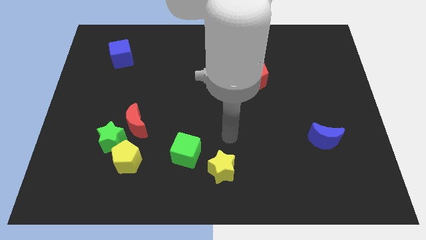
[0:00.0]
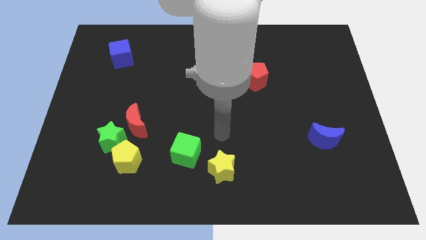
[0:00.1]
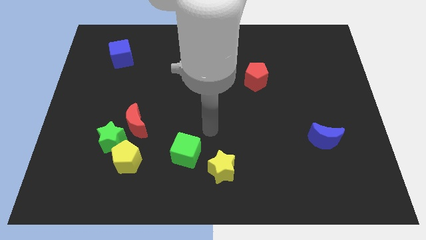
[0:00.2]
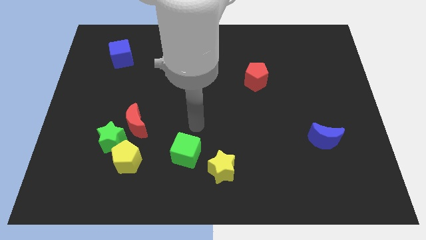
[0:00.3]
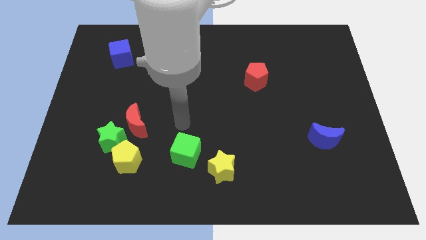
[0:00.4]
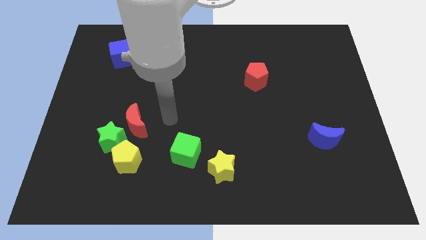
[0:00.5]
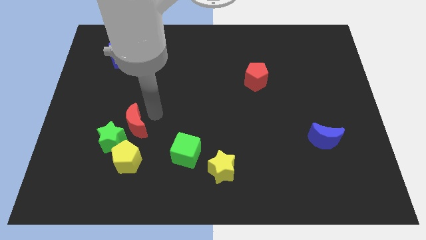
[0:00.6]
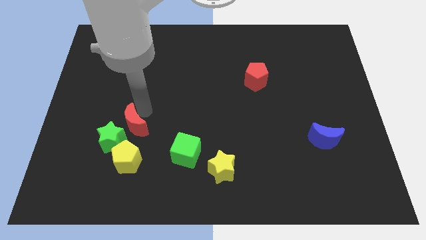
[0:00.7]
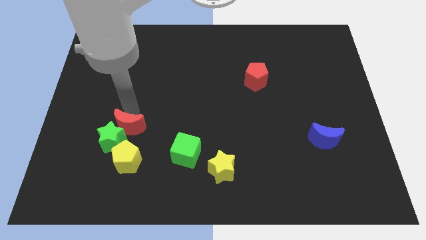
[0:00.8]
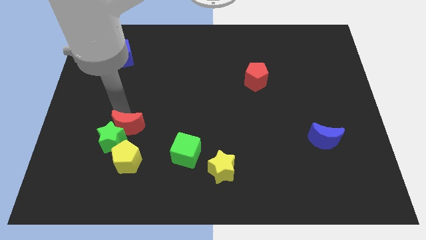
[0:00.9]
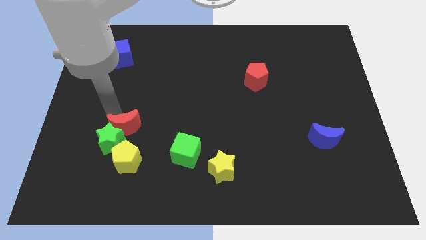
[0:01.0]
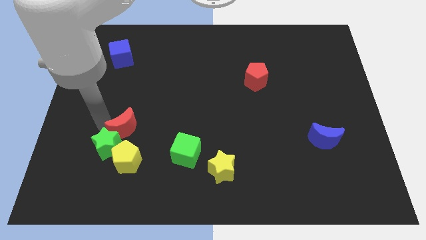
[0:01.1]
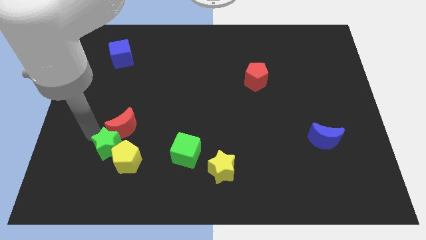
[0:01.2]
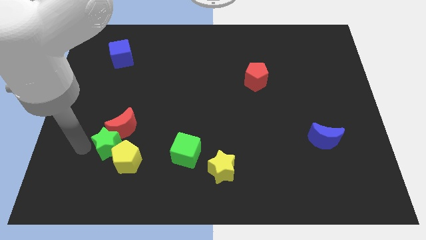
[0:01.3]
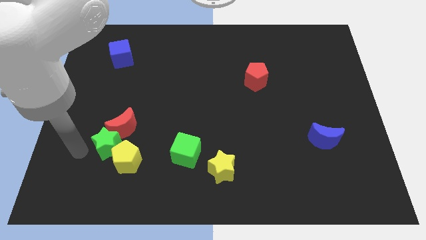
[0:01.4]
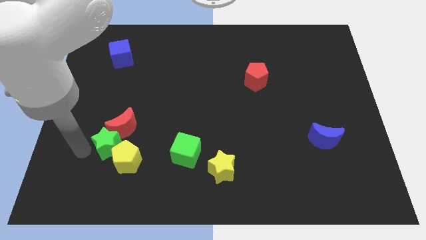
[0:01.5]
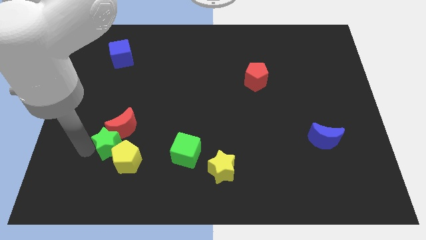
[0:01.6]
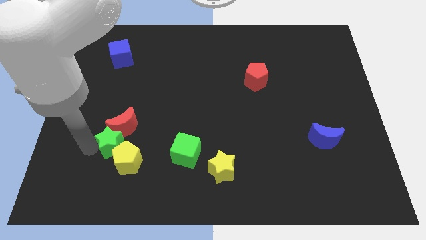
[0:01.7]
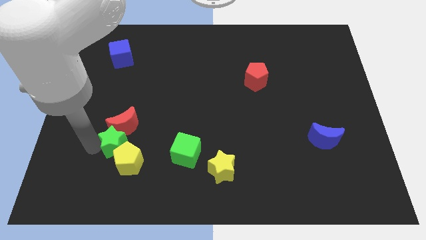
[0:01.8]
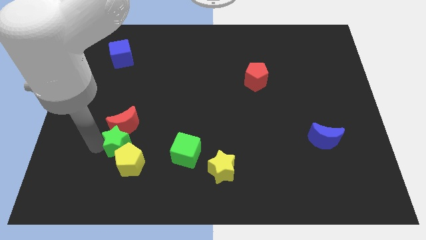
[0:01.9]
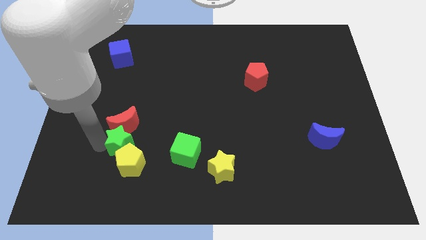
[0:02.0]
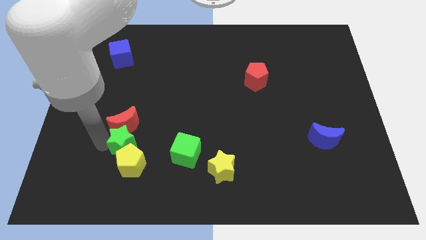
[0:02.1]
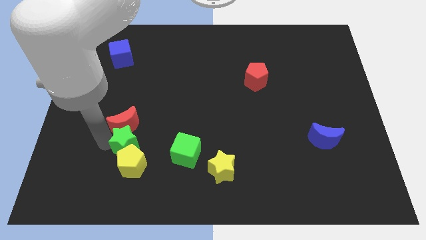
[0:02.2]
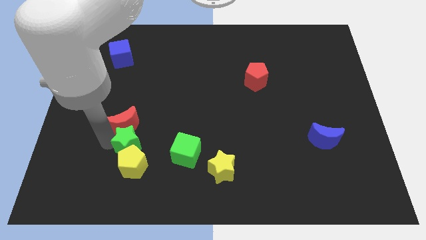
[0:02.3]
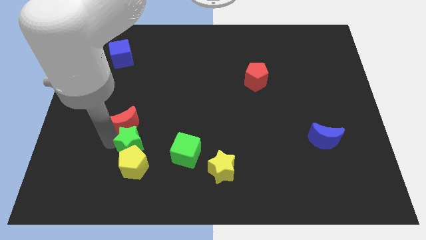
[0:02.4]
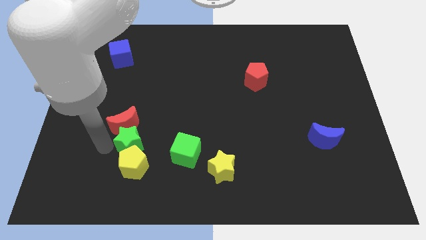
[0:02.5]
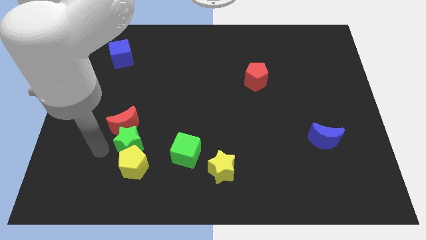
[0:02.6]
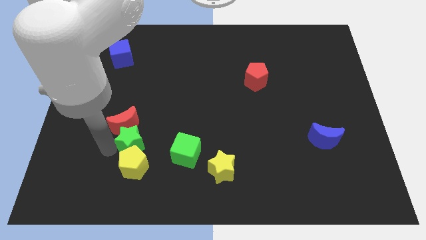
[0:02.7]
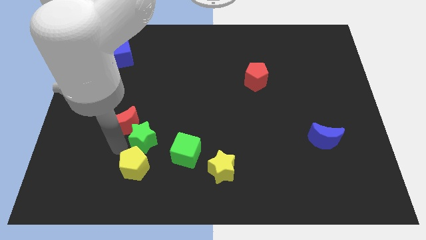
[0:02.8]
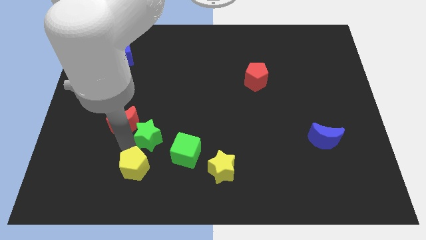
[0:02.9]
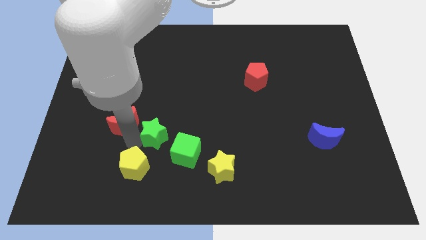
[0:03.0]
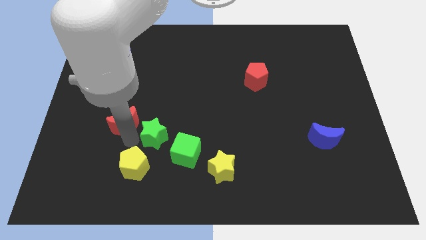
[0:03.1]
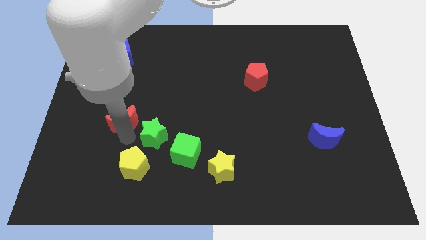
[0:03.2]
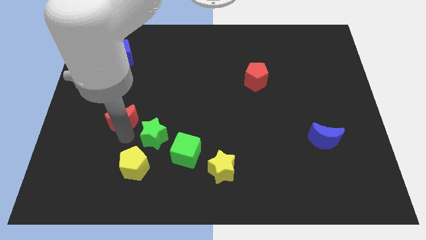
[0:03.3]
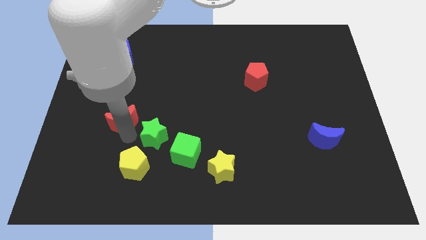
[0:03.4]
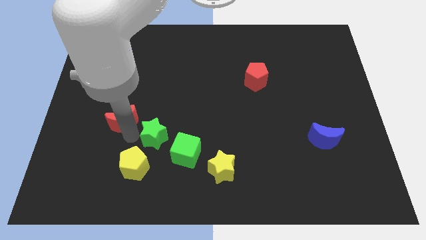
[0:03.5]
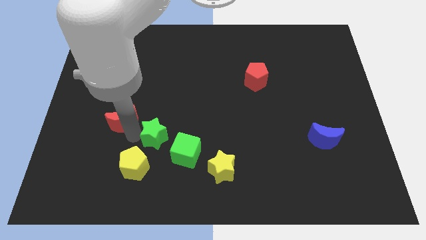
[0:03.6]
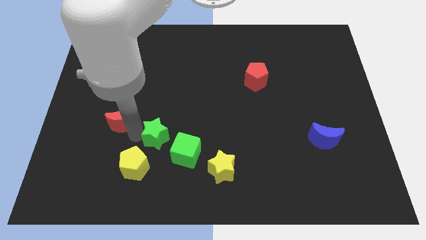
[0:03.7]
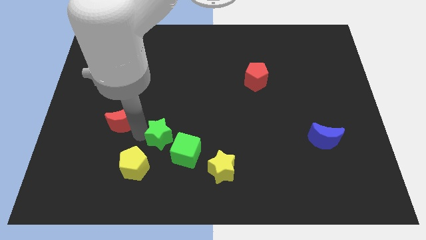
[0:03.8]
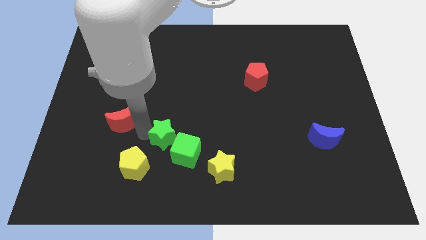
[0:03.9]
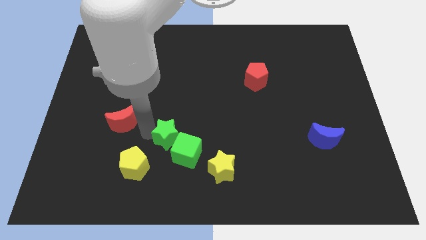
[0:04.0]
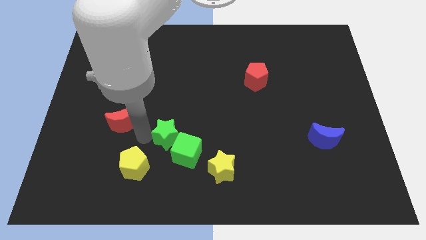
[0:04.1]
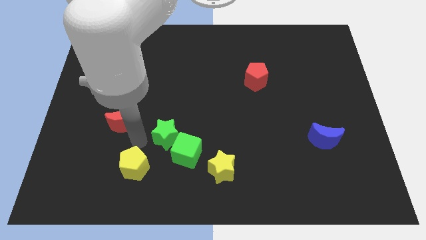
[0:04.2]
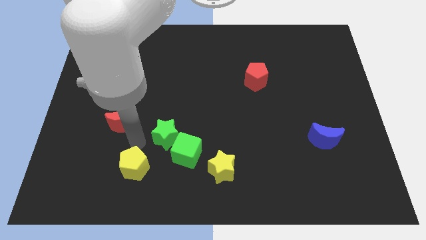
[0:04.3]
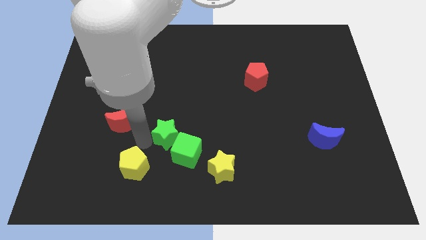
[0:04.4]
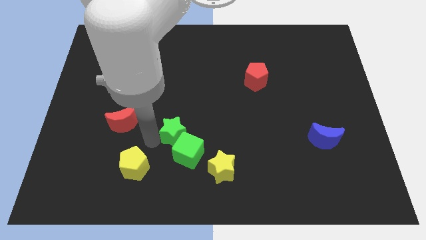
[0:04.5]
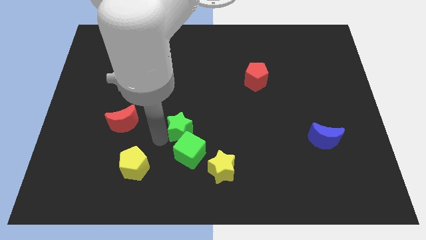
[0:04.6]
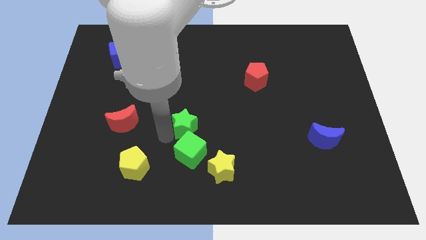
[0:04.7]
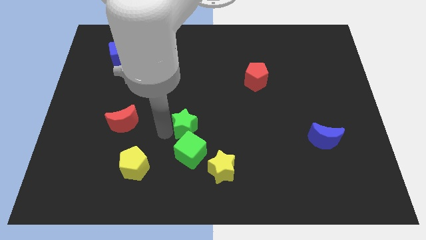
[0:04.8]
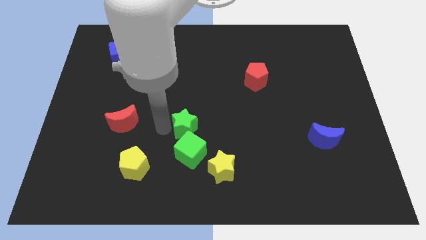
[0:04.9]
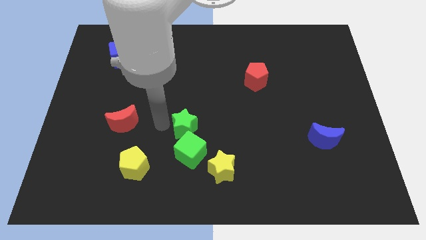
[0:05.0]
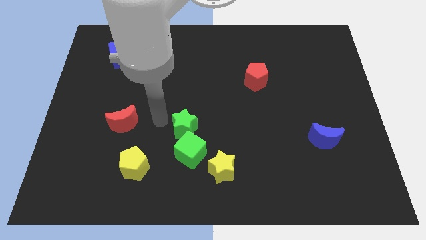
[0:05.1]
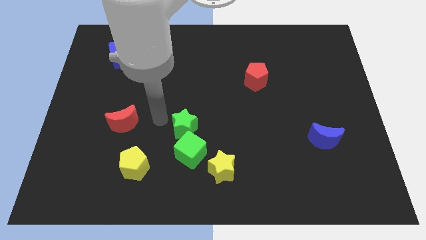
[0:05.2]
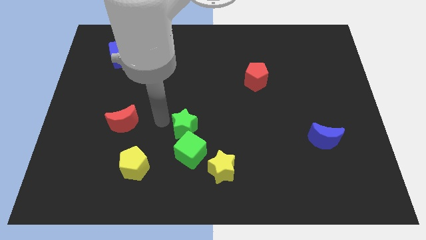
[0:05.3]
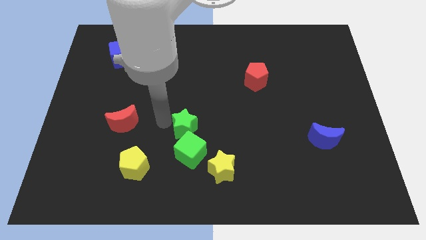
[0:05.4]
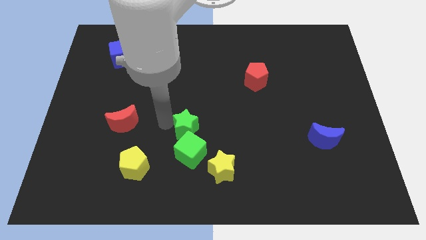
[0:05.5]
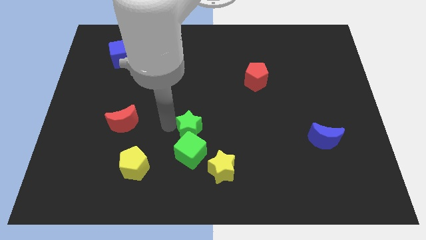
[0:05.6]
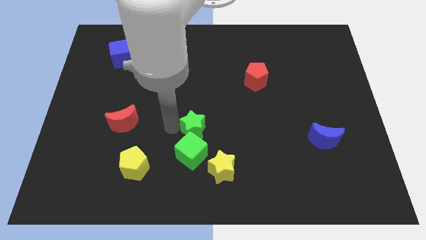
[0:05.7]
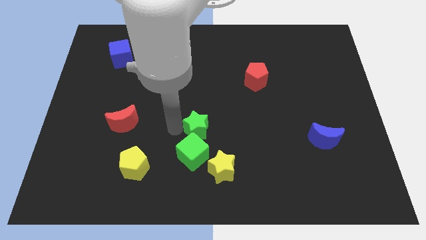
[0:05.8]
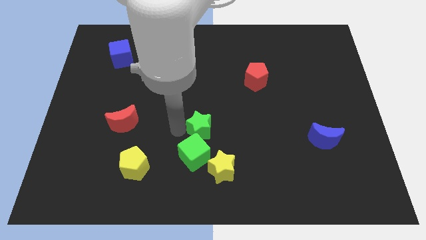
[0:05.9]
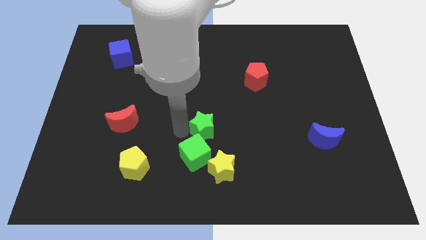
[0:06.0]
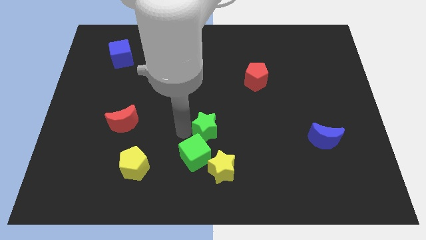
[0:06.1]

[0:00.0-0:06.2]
slide the green star to the right

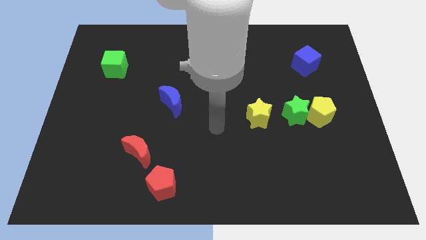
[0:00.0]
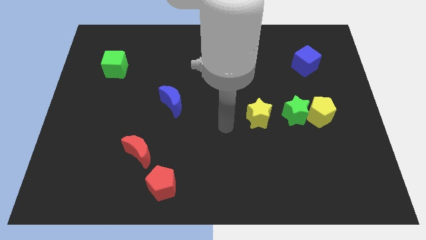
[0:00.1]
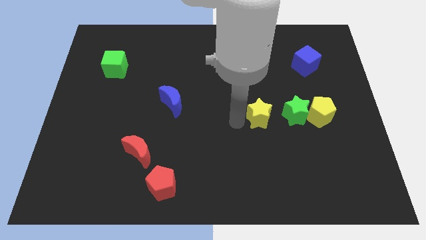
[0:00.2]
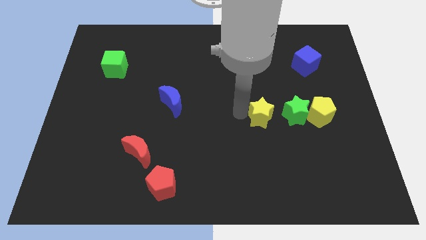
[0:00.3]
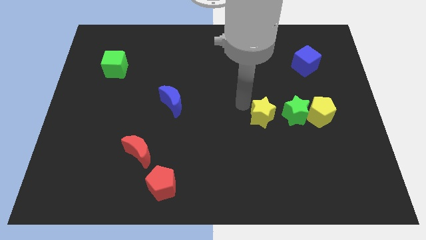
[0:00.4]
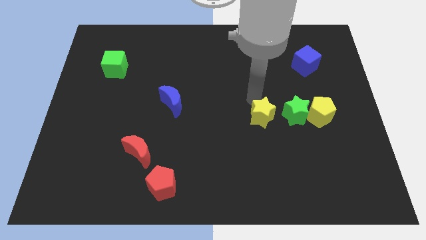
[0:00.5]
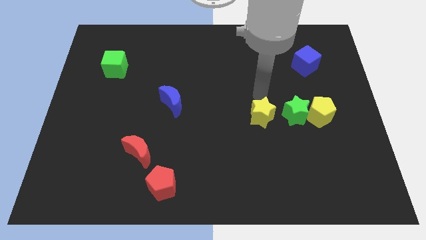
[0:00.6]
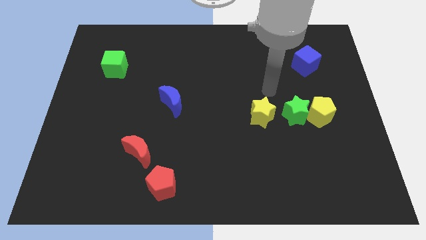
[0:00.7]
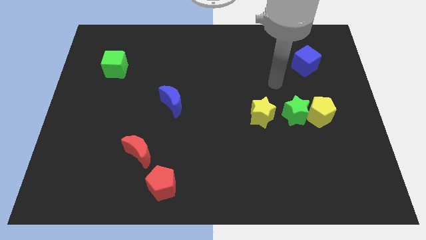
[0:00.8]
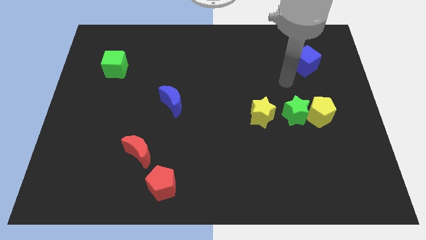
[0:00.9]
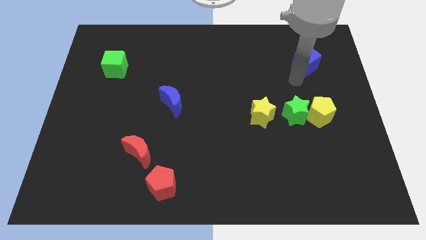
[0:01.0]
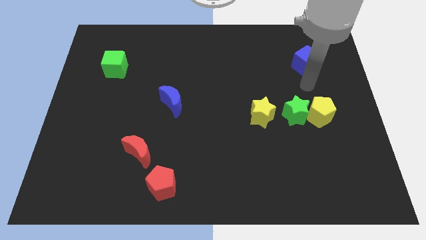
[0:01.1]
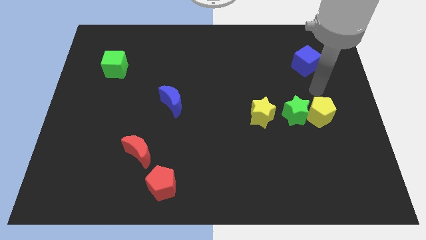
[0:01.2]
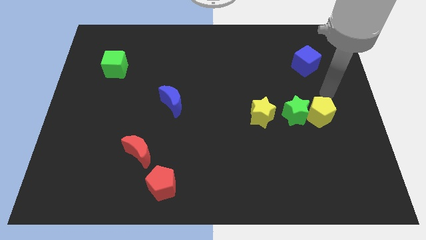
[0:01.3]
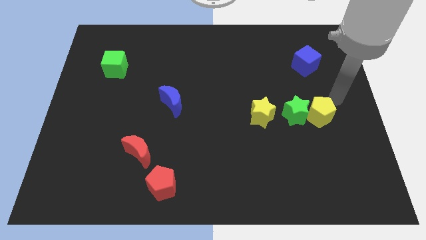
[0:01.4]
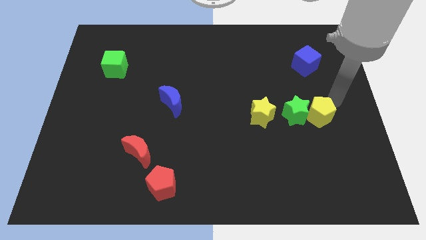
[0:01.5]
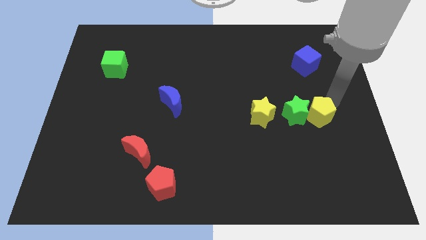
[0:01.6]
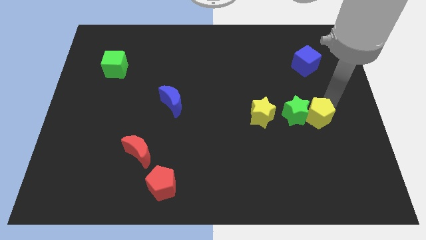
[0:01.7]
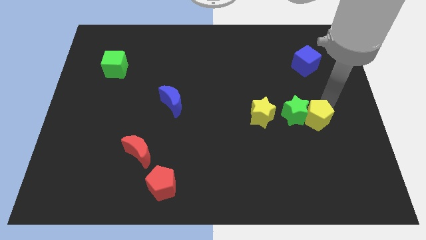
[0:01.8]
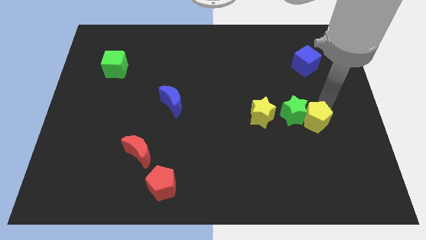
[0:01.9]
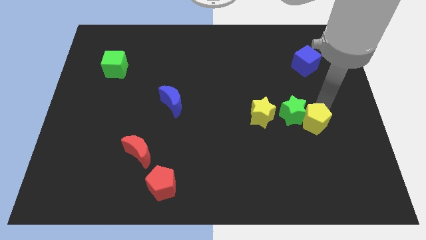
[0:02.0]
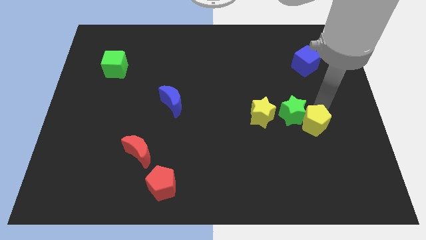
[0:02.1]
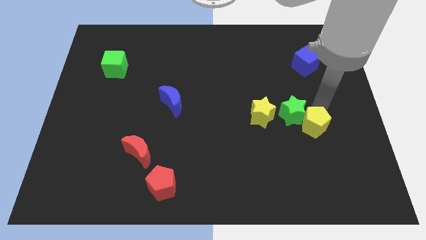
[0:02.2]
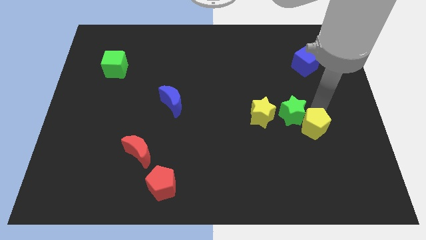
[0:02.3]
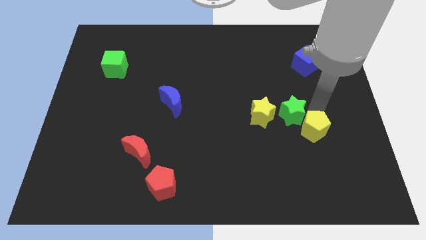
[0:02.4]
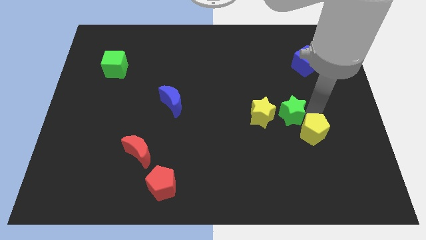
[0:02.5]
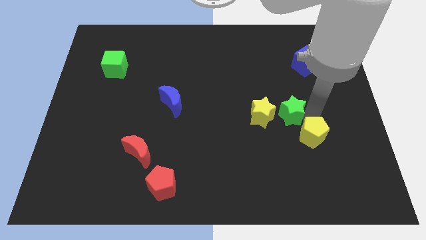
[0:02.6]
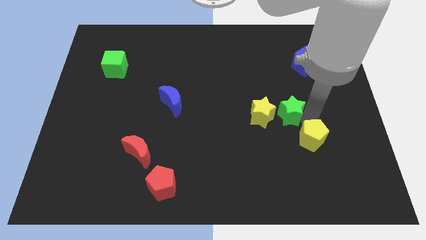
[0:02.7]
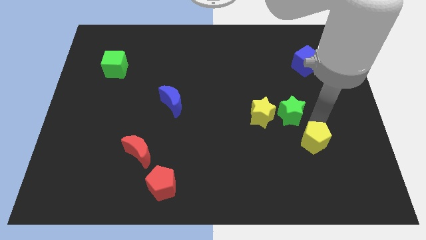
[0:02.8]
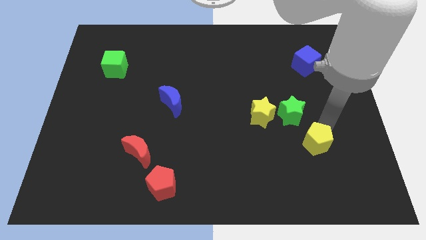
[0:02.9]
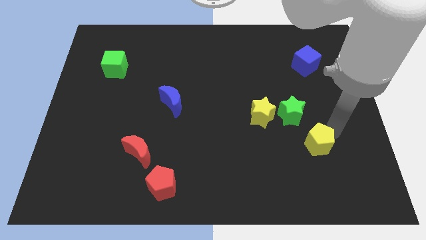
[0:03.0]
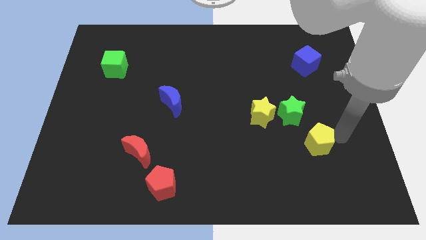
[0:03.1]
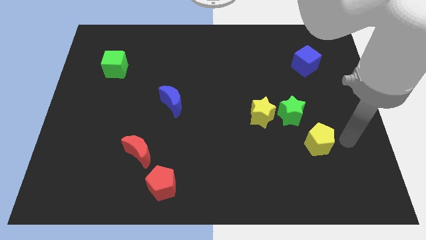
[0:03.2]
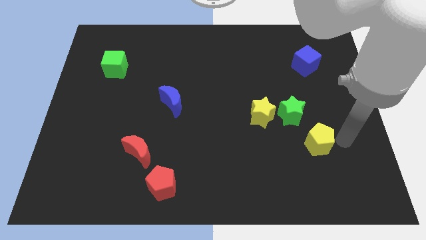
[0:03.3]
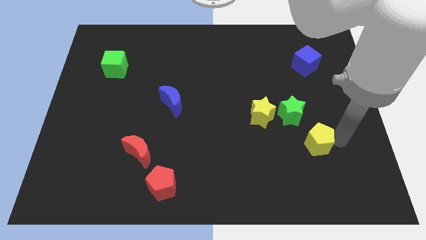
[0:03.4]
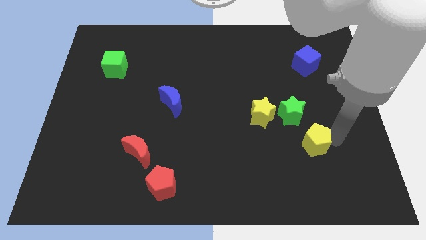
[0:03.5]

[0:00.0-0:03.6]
slightly push the yellow pentagon down and then left
